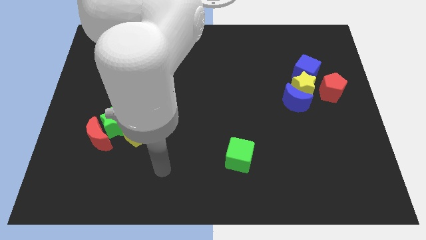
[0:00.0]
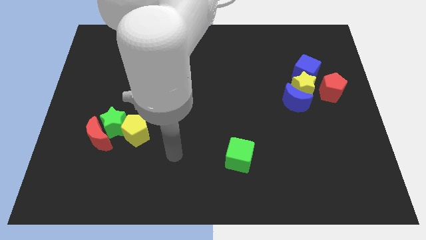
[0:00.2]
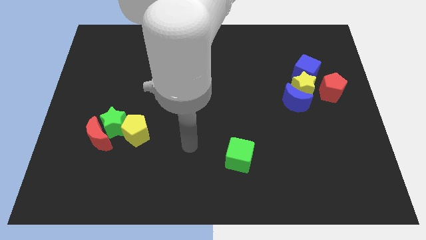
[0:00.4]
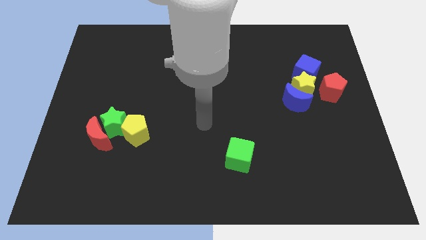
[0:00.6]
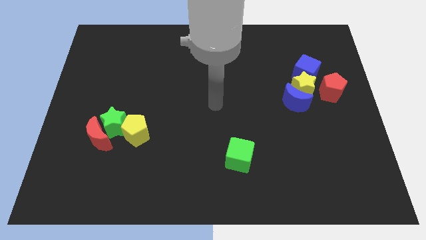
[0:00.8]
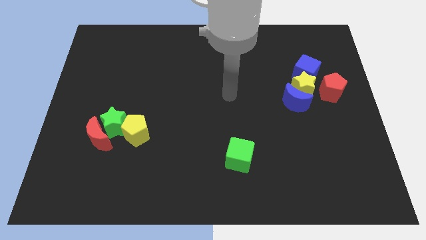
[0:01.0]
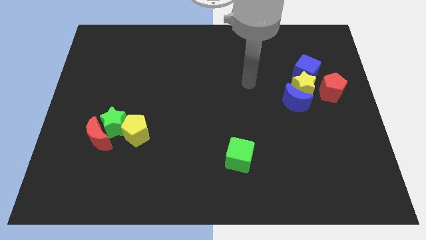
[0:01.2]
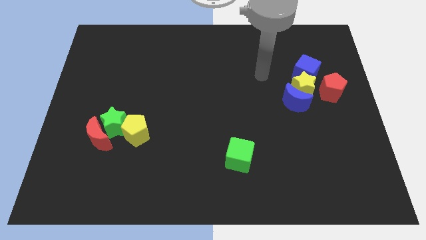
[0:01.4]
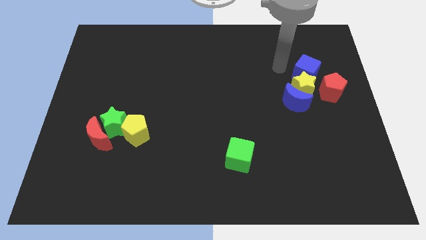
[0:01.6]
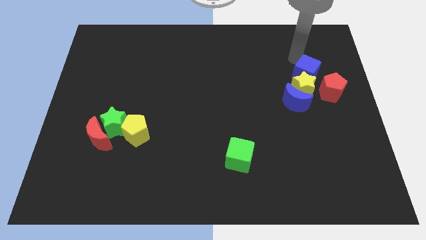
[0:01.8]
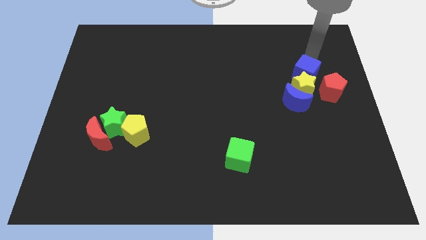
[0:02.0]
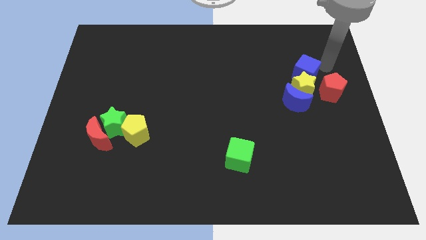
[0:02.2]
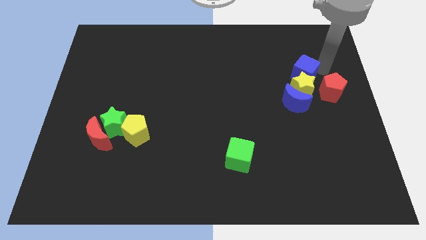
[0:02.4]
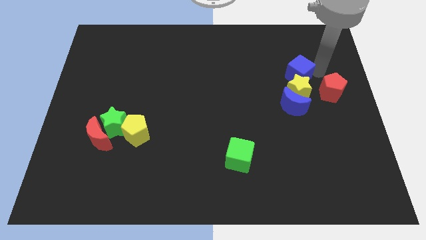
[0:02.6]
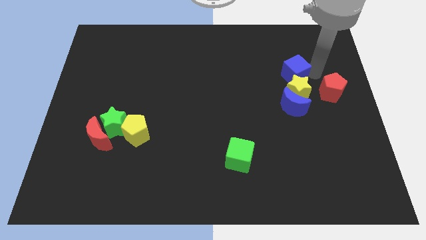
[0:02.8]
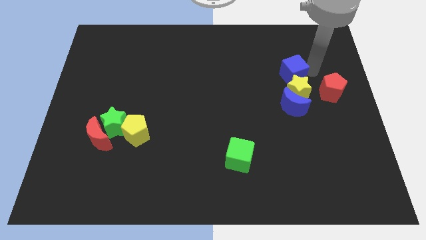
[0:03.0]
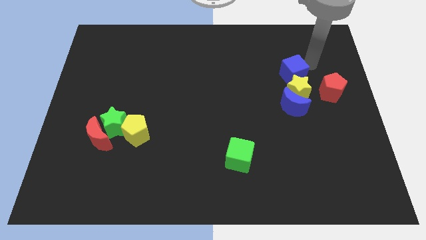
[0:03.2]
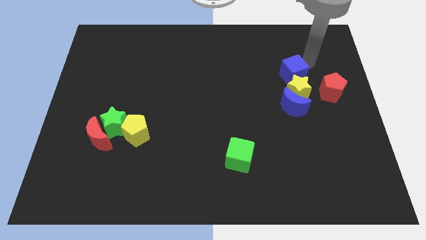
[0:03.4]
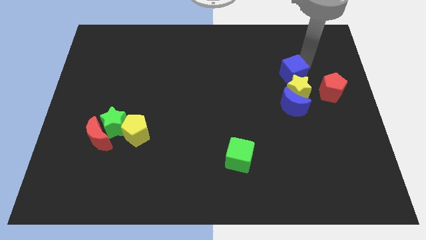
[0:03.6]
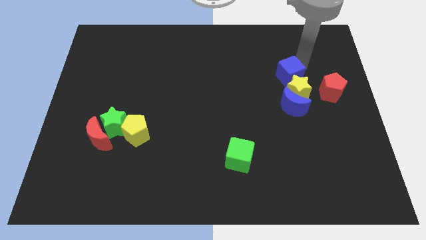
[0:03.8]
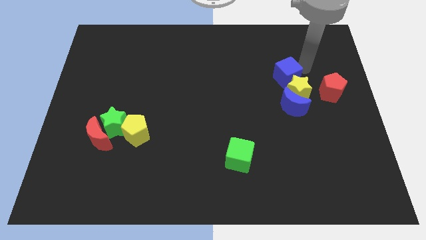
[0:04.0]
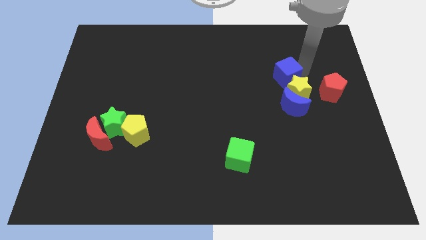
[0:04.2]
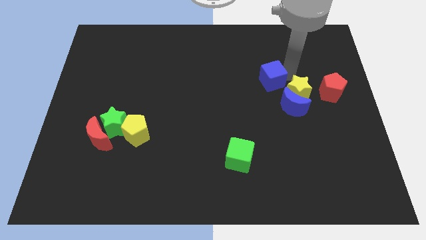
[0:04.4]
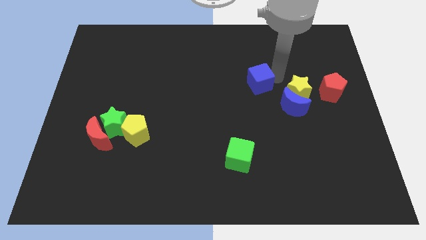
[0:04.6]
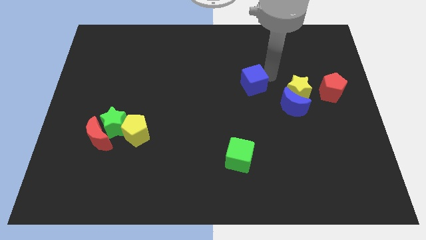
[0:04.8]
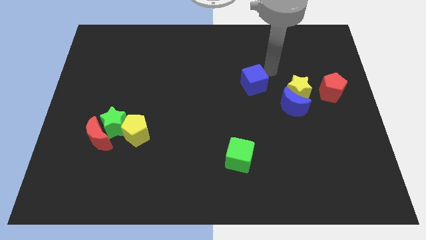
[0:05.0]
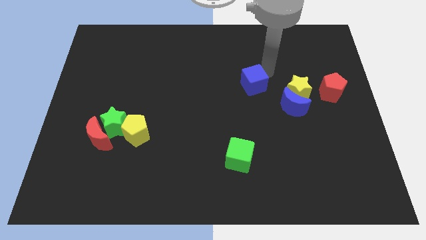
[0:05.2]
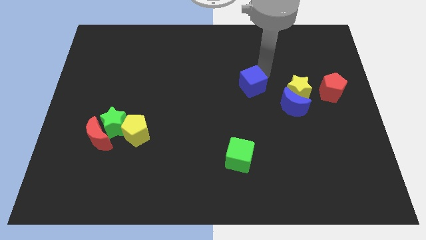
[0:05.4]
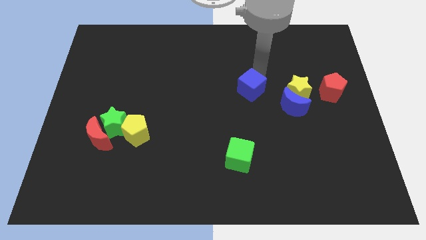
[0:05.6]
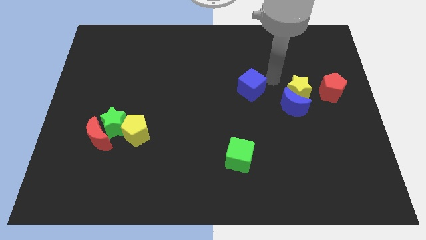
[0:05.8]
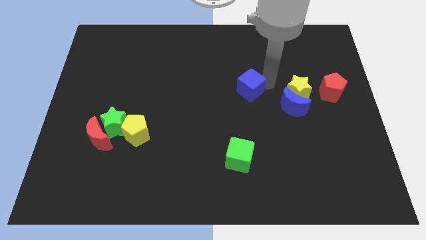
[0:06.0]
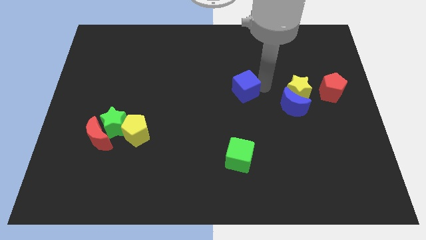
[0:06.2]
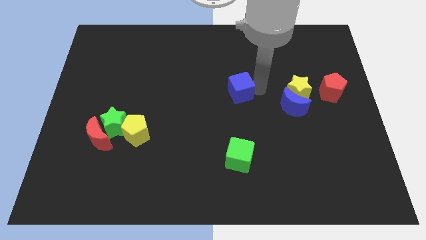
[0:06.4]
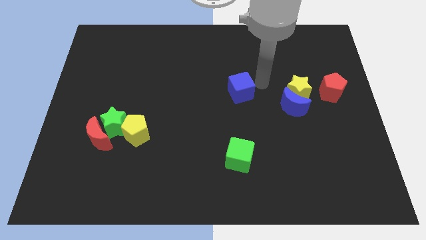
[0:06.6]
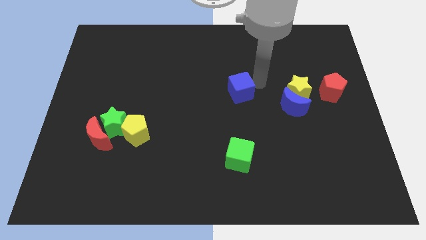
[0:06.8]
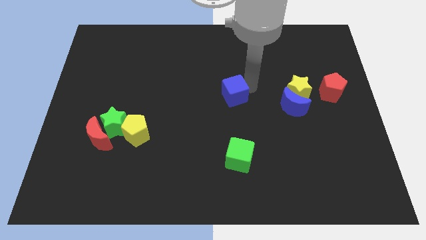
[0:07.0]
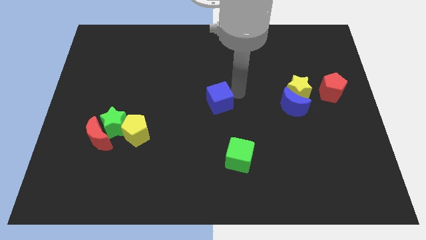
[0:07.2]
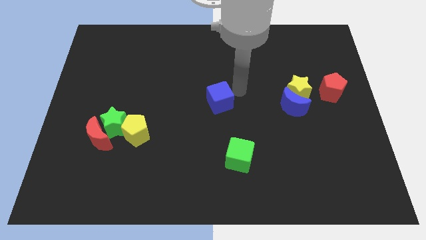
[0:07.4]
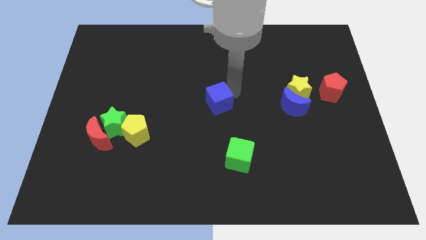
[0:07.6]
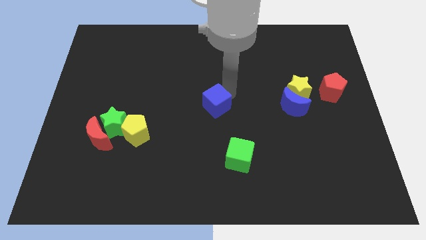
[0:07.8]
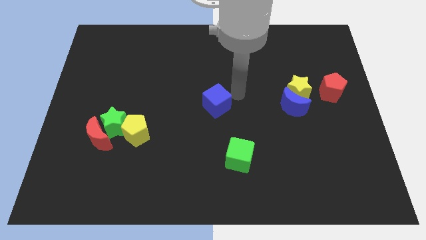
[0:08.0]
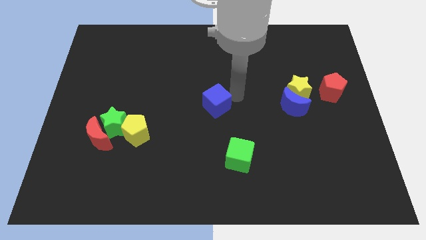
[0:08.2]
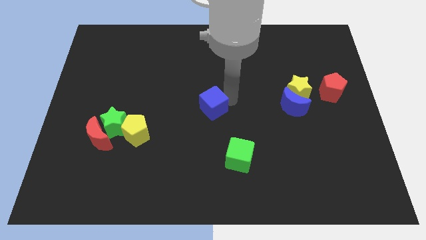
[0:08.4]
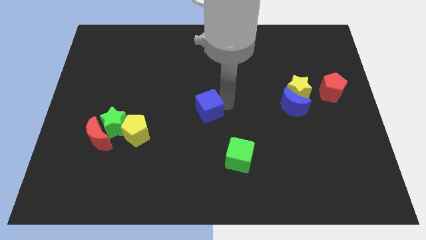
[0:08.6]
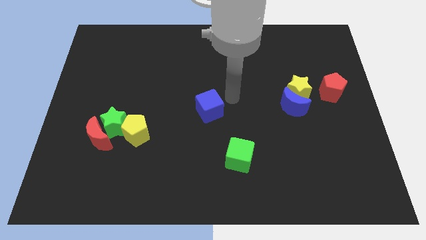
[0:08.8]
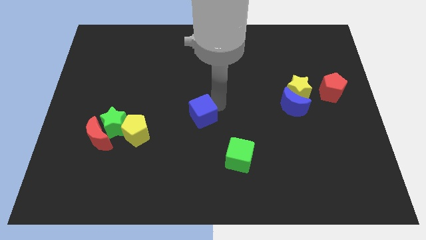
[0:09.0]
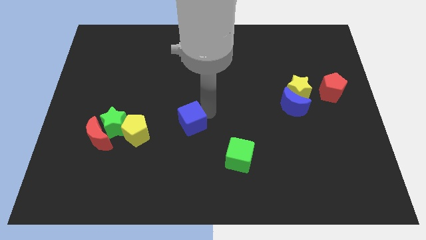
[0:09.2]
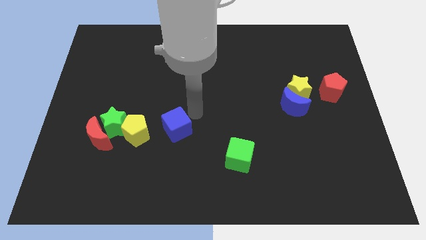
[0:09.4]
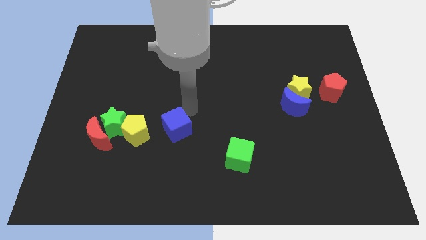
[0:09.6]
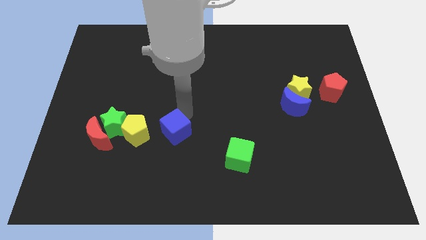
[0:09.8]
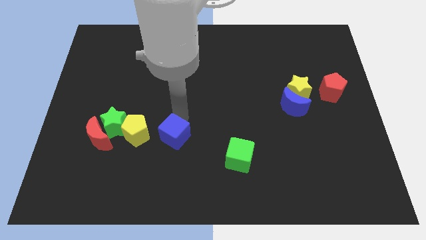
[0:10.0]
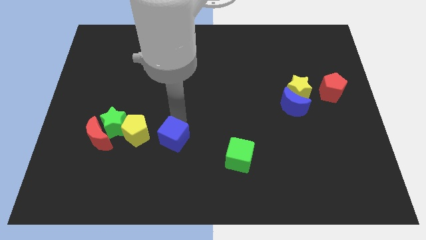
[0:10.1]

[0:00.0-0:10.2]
move the blue cube to the bottom right of the yellow pentagon

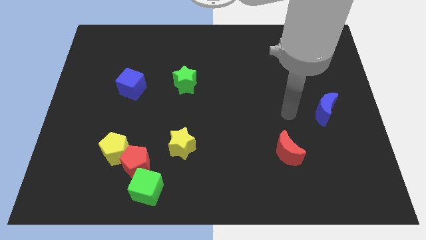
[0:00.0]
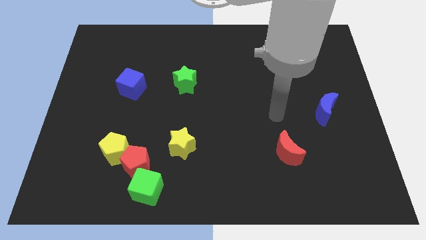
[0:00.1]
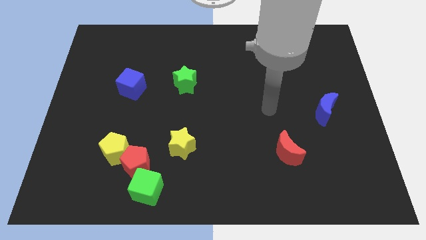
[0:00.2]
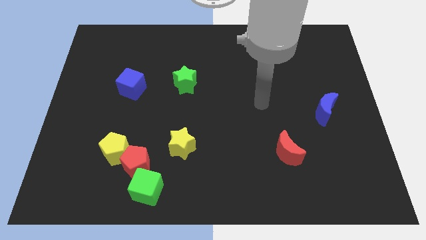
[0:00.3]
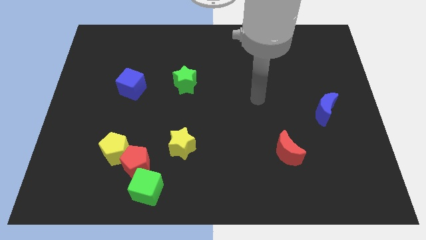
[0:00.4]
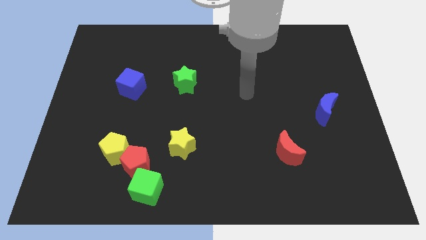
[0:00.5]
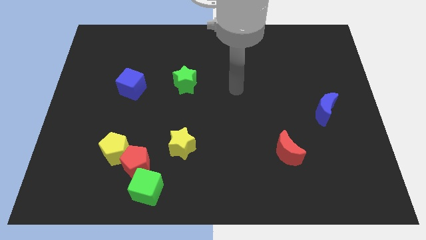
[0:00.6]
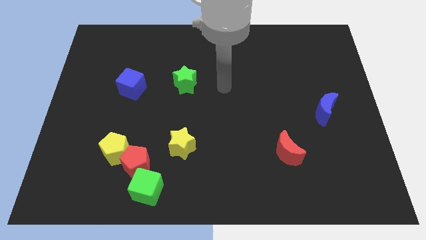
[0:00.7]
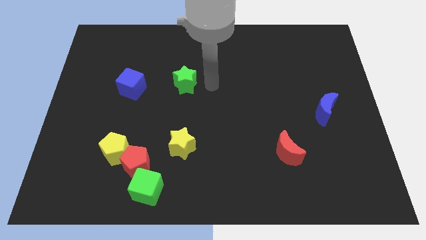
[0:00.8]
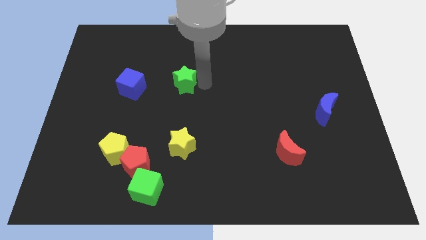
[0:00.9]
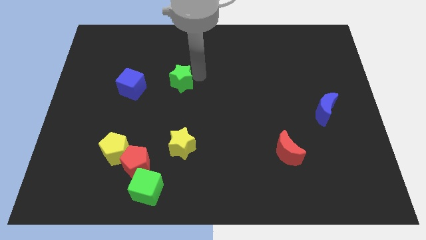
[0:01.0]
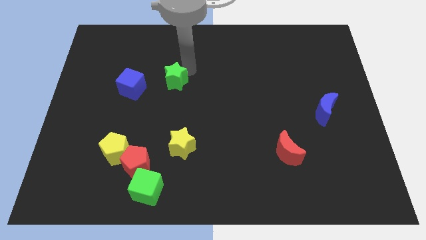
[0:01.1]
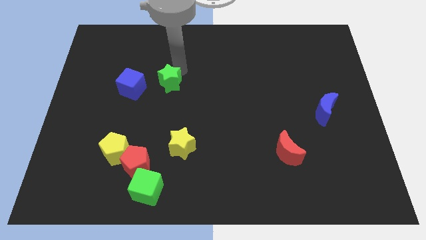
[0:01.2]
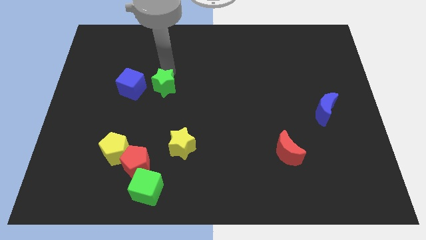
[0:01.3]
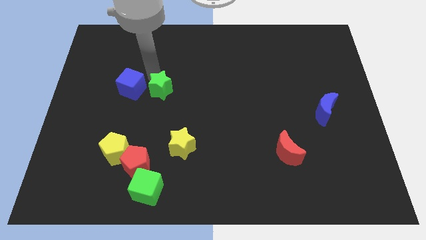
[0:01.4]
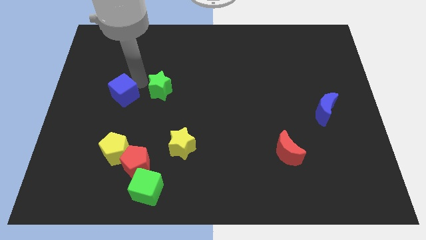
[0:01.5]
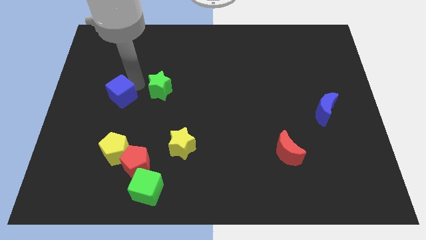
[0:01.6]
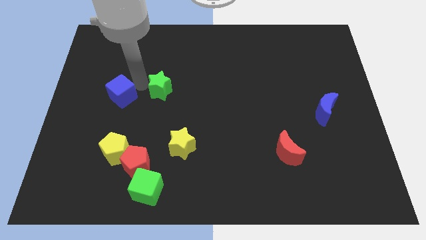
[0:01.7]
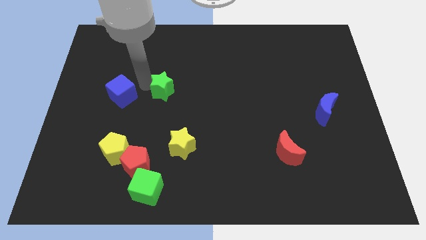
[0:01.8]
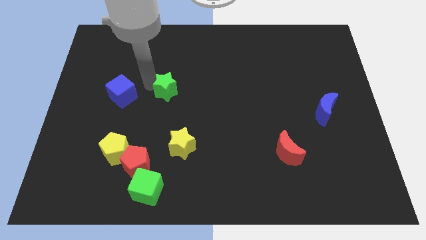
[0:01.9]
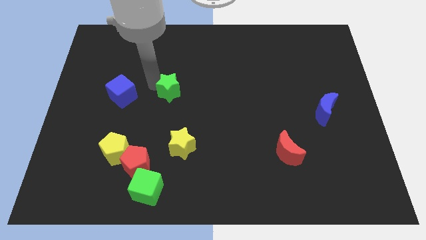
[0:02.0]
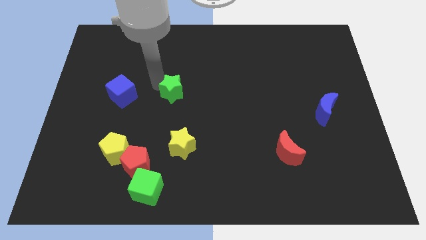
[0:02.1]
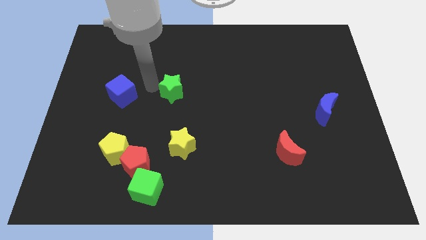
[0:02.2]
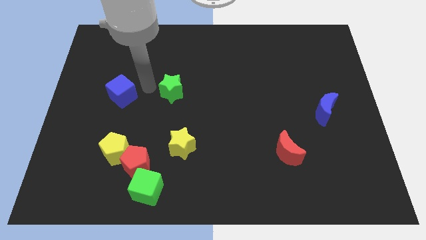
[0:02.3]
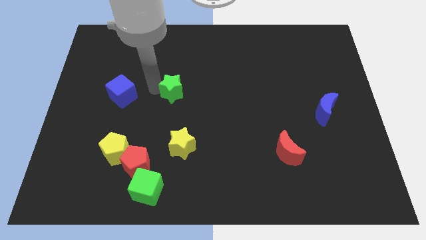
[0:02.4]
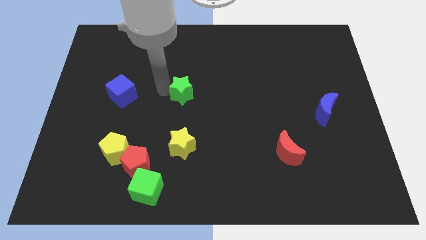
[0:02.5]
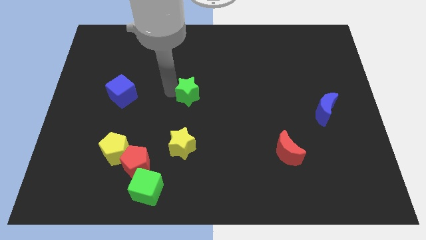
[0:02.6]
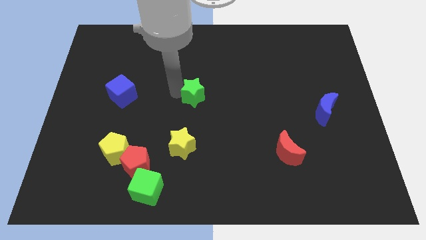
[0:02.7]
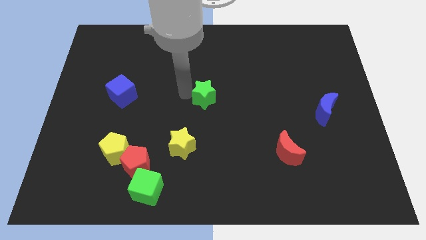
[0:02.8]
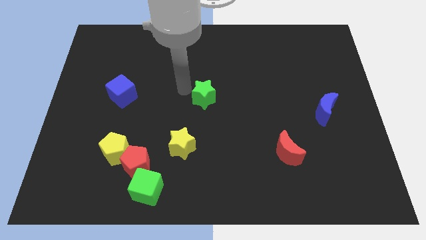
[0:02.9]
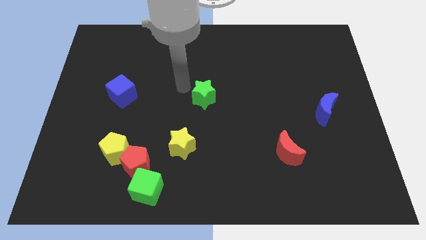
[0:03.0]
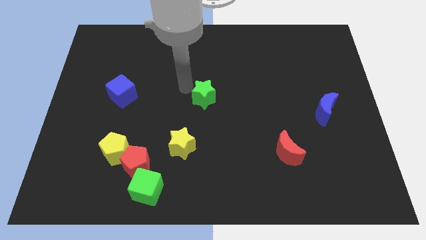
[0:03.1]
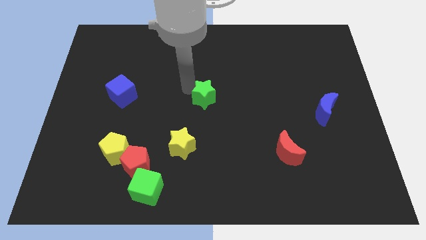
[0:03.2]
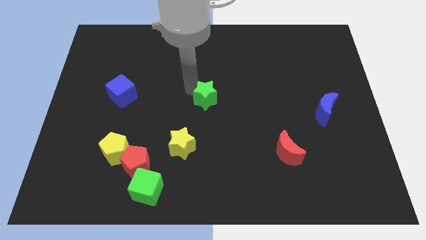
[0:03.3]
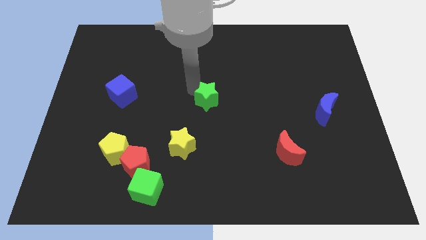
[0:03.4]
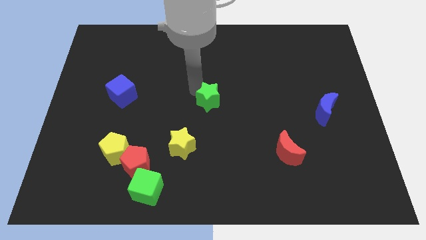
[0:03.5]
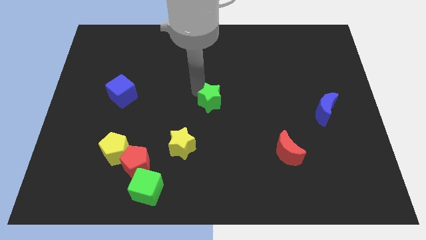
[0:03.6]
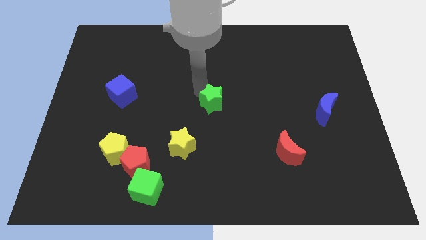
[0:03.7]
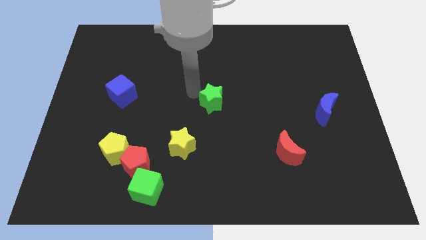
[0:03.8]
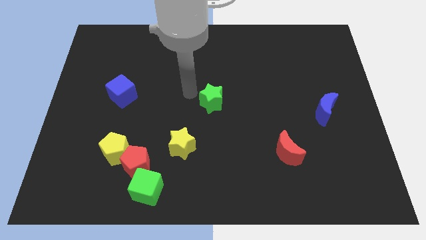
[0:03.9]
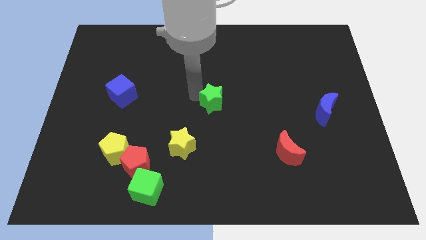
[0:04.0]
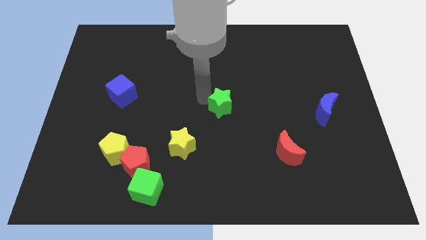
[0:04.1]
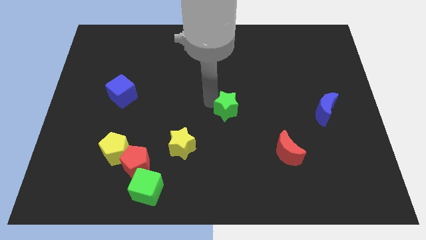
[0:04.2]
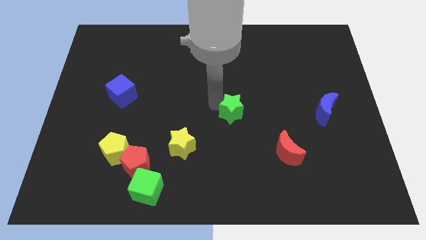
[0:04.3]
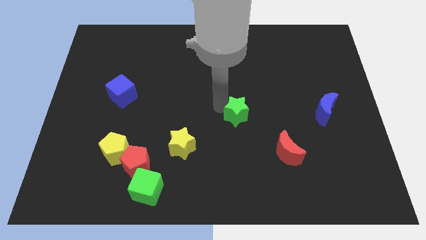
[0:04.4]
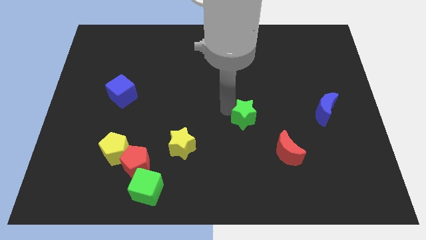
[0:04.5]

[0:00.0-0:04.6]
put the green star to the top left of the red moon
